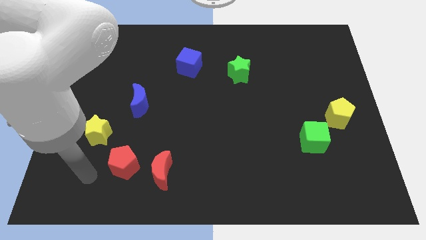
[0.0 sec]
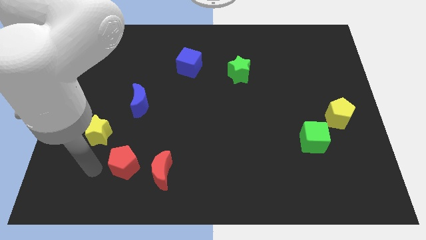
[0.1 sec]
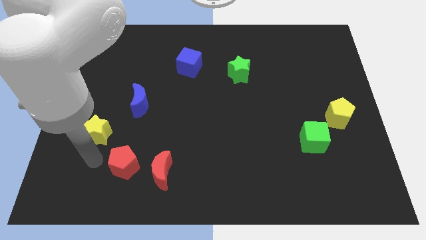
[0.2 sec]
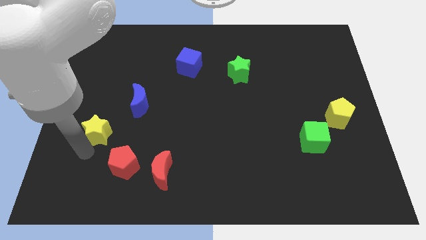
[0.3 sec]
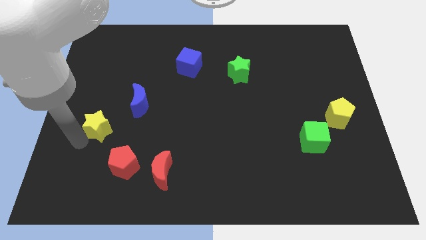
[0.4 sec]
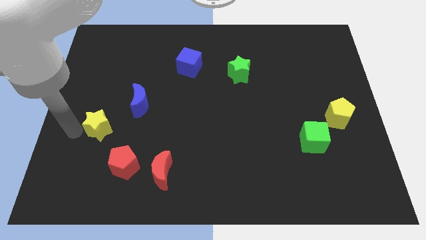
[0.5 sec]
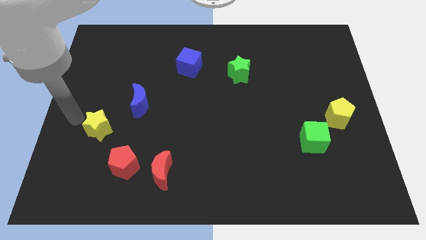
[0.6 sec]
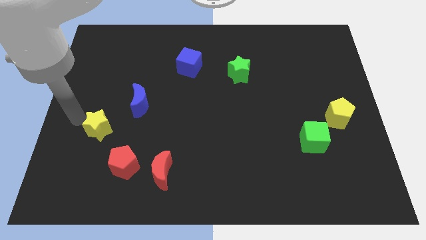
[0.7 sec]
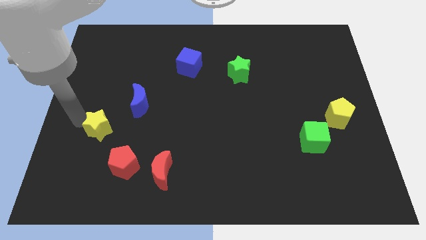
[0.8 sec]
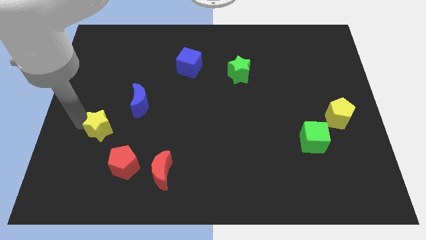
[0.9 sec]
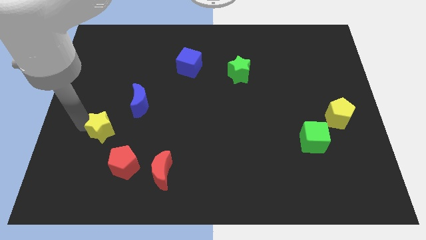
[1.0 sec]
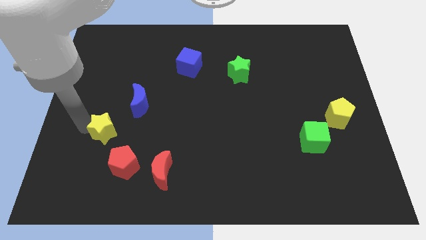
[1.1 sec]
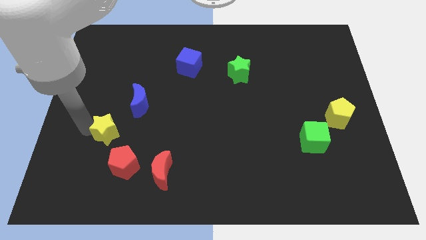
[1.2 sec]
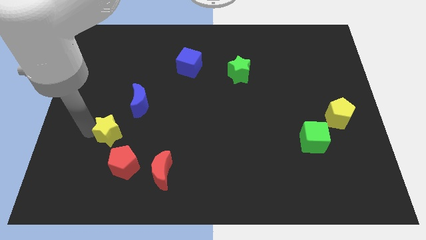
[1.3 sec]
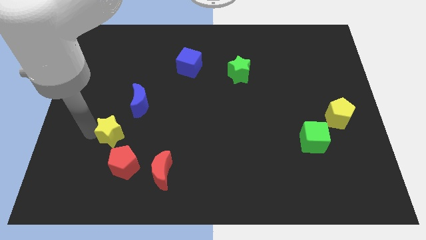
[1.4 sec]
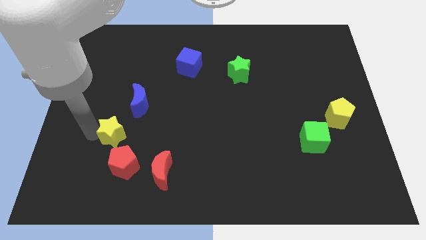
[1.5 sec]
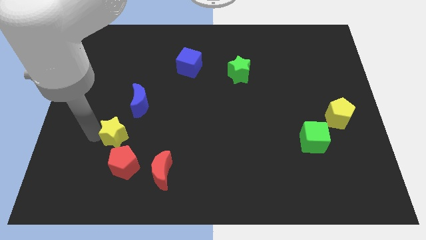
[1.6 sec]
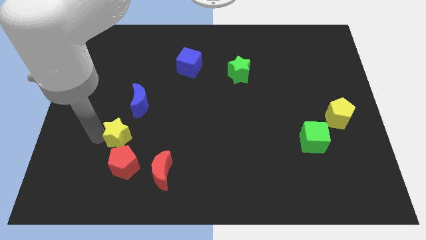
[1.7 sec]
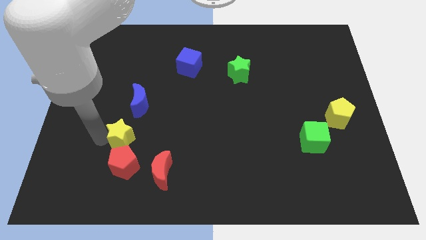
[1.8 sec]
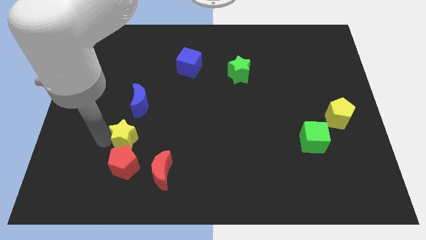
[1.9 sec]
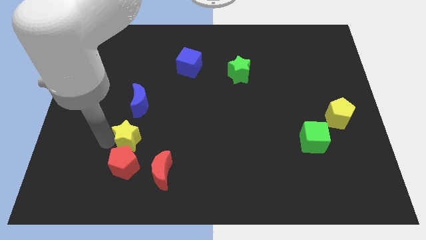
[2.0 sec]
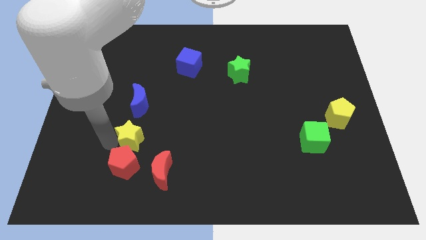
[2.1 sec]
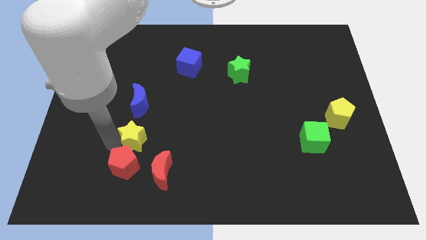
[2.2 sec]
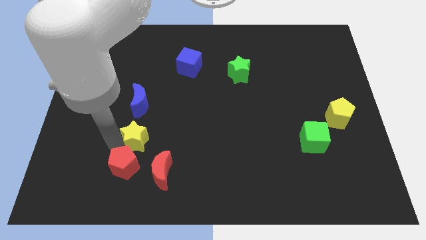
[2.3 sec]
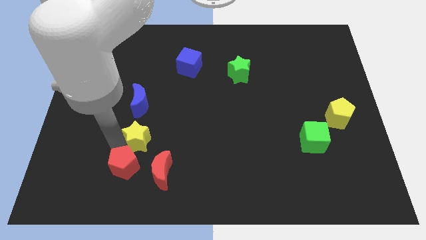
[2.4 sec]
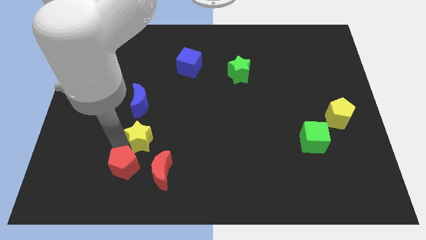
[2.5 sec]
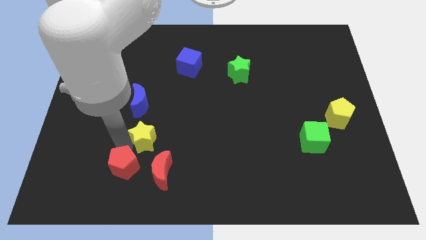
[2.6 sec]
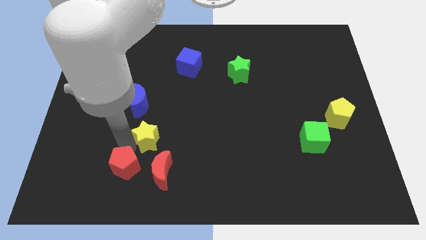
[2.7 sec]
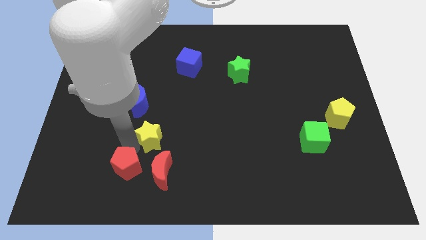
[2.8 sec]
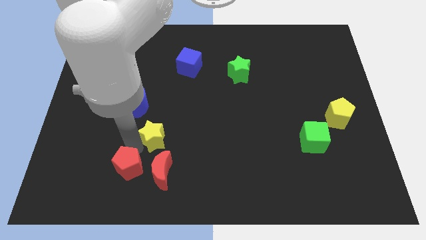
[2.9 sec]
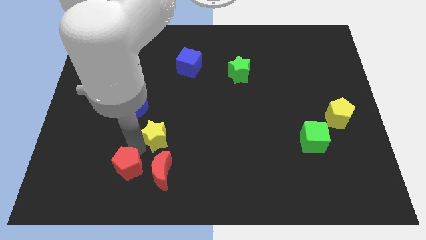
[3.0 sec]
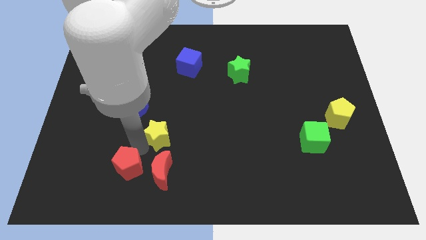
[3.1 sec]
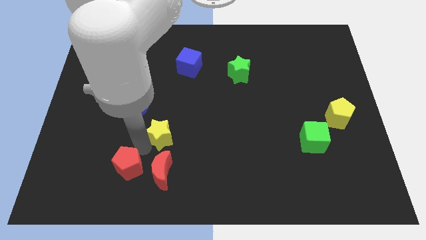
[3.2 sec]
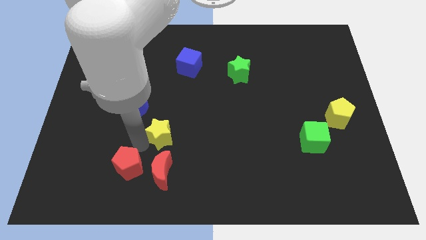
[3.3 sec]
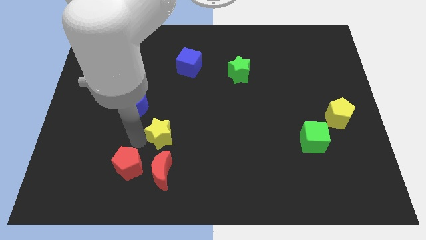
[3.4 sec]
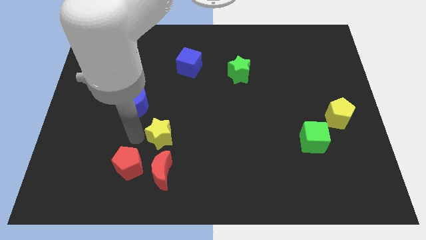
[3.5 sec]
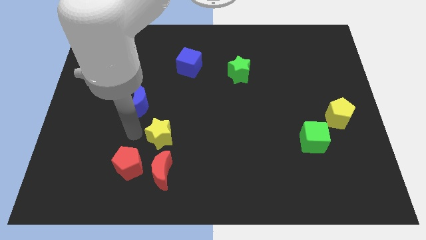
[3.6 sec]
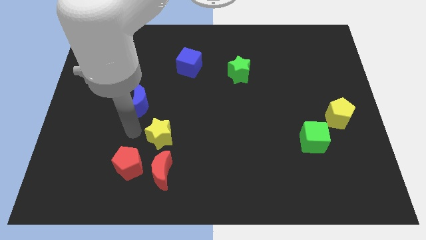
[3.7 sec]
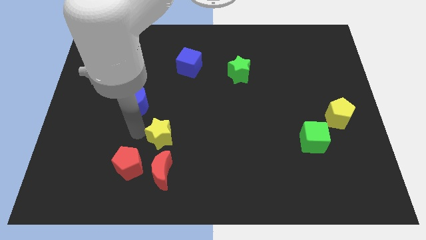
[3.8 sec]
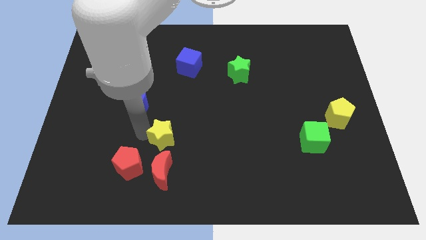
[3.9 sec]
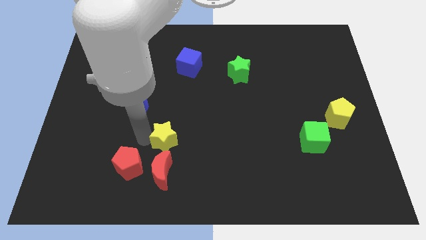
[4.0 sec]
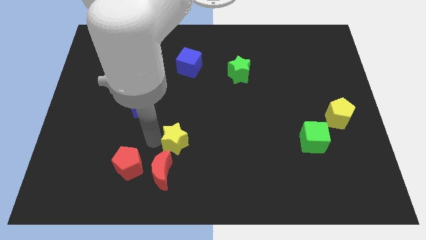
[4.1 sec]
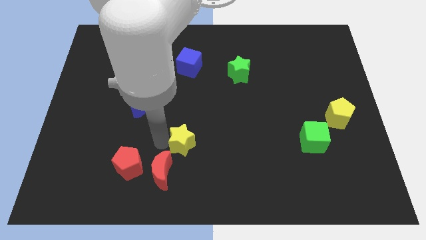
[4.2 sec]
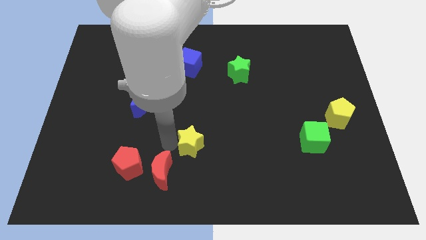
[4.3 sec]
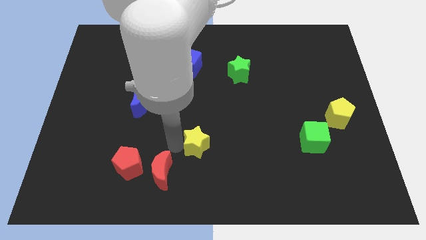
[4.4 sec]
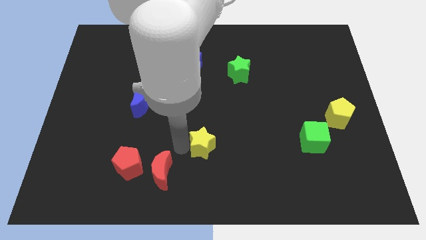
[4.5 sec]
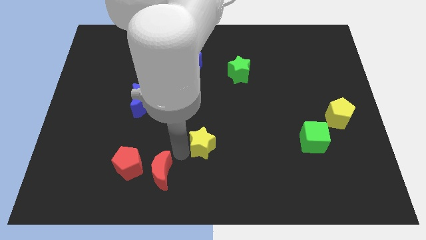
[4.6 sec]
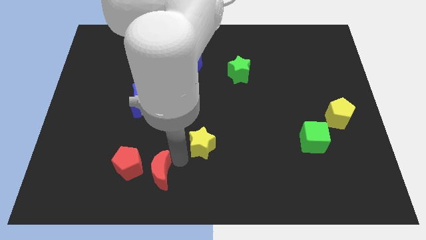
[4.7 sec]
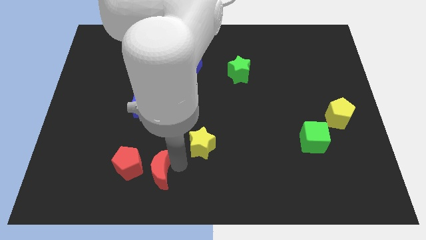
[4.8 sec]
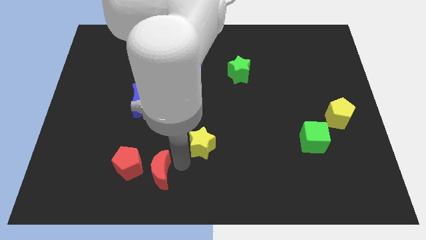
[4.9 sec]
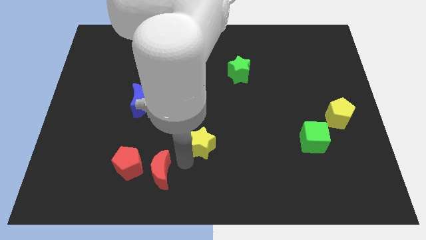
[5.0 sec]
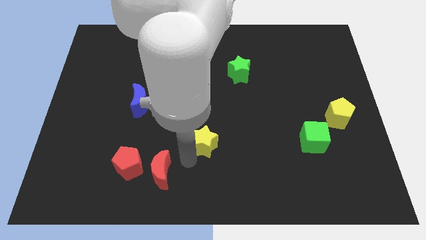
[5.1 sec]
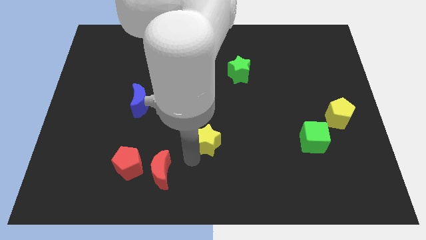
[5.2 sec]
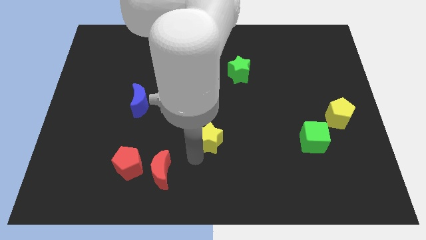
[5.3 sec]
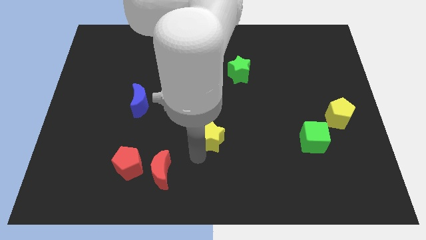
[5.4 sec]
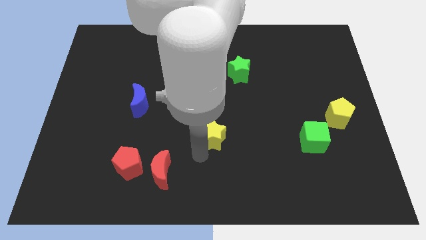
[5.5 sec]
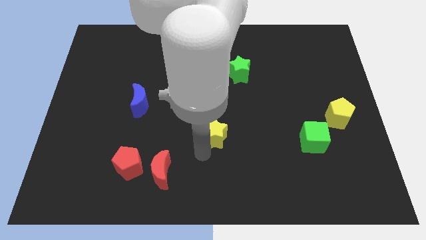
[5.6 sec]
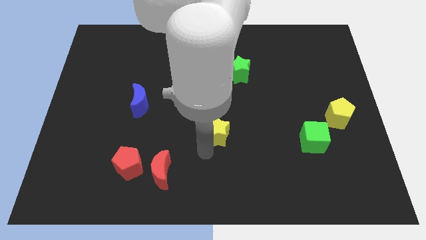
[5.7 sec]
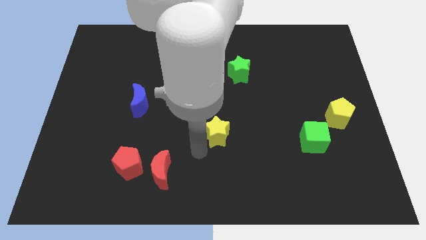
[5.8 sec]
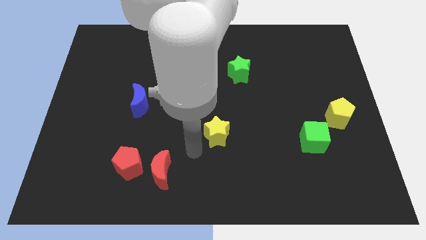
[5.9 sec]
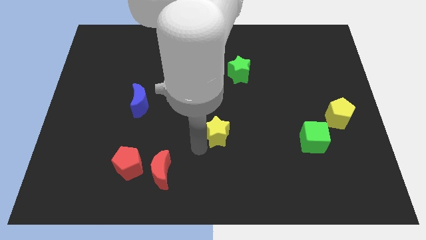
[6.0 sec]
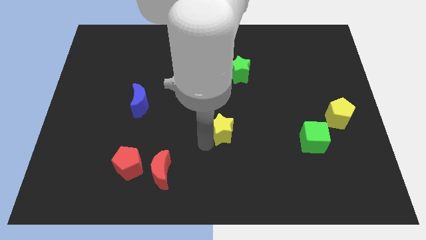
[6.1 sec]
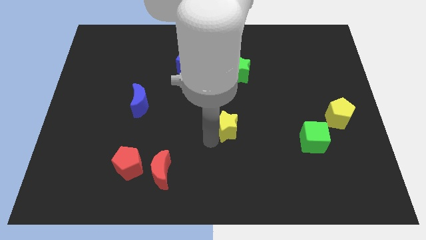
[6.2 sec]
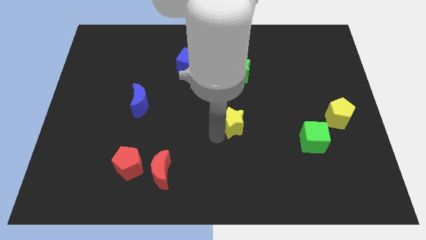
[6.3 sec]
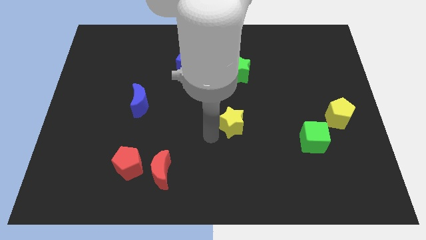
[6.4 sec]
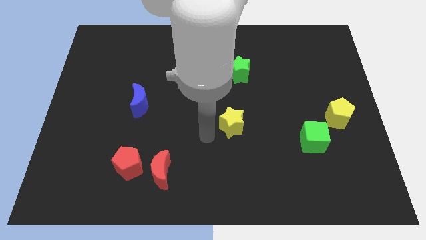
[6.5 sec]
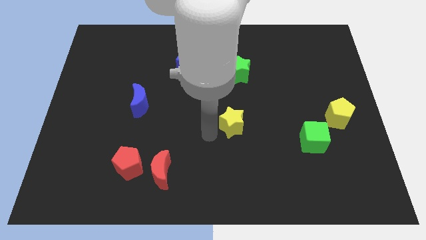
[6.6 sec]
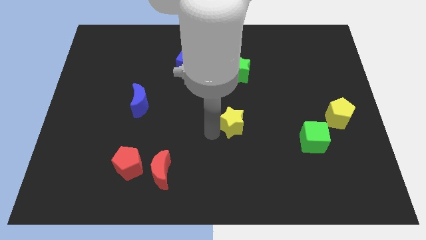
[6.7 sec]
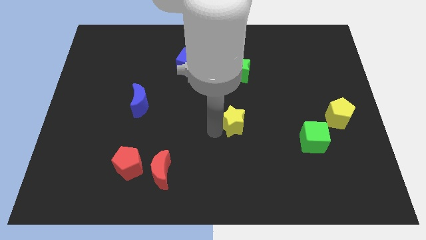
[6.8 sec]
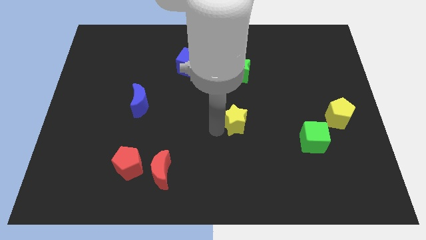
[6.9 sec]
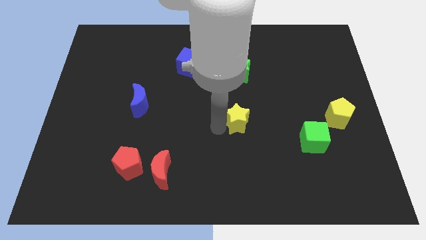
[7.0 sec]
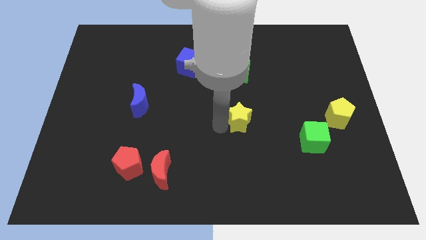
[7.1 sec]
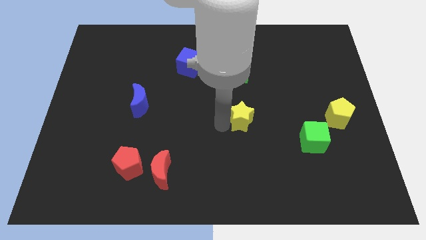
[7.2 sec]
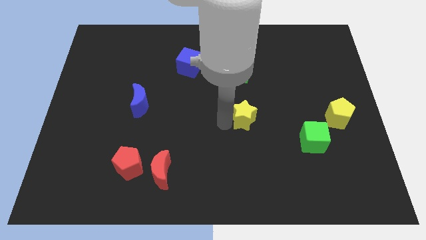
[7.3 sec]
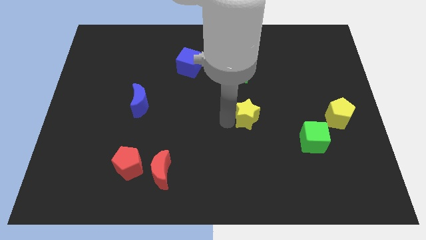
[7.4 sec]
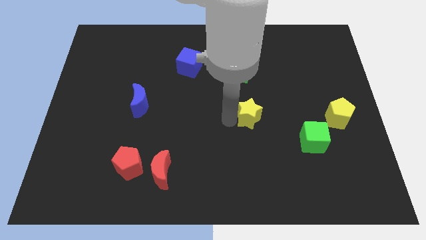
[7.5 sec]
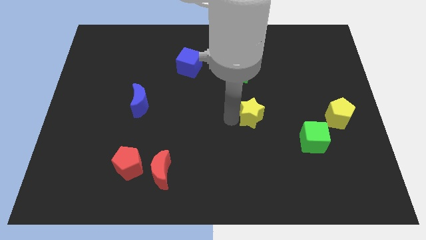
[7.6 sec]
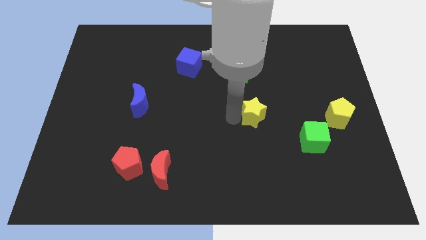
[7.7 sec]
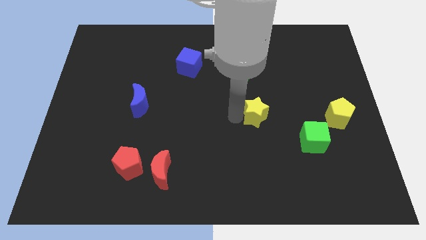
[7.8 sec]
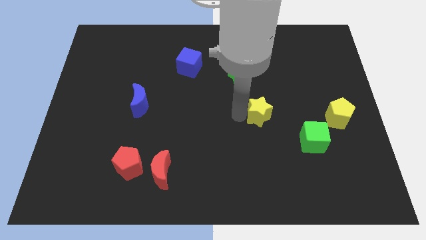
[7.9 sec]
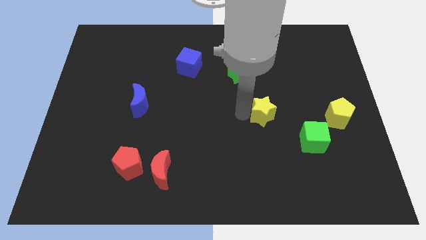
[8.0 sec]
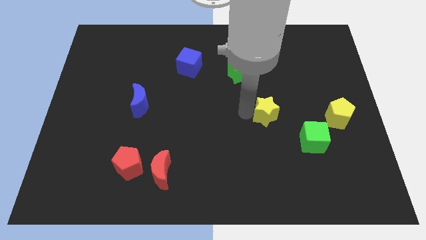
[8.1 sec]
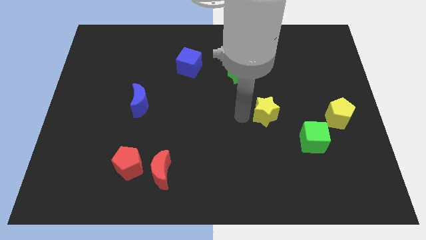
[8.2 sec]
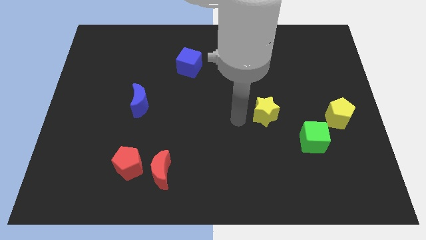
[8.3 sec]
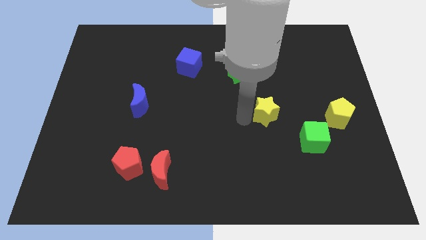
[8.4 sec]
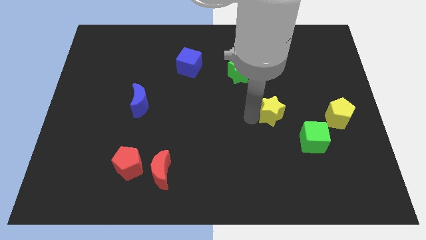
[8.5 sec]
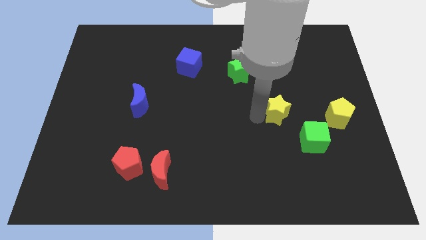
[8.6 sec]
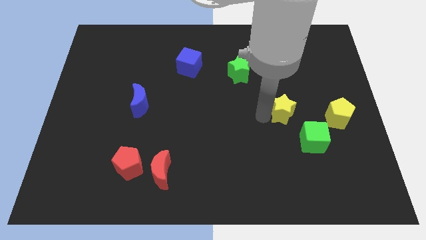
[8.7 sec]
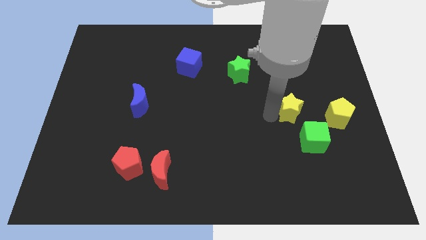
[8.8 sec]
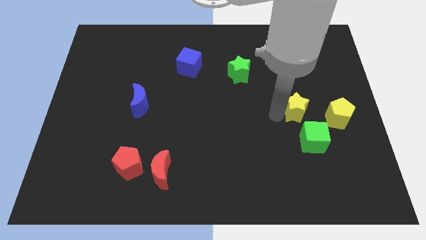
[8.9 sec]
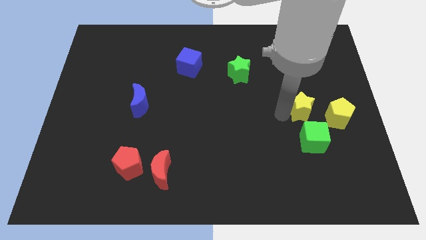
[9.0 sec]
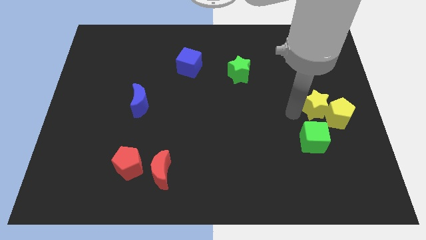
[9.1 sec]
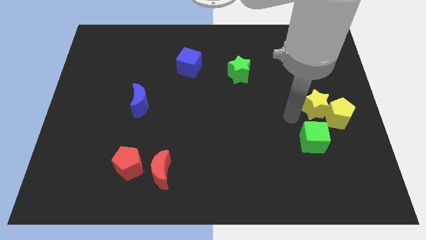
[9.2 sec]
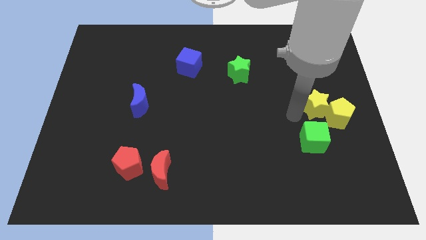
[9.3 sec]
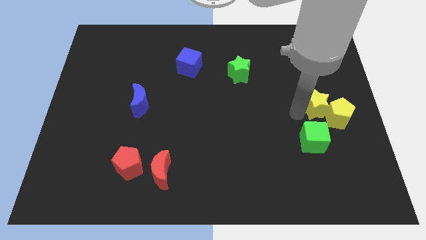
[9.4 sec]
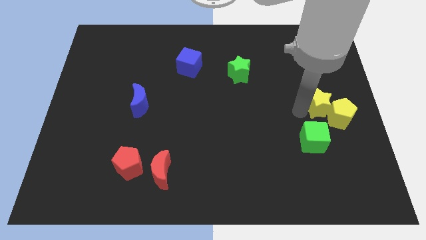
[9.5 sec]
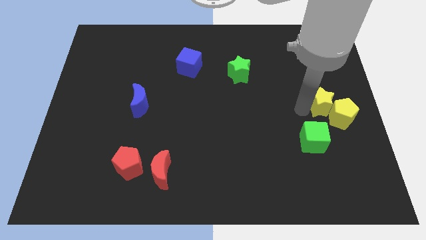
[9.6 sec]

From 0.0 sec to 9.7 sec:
move the yellow star to the right side of the board
